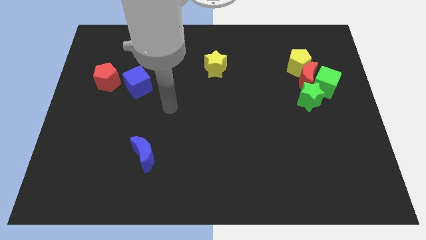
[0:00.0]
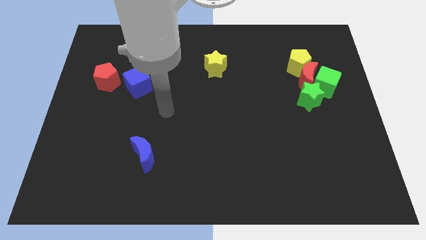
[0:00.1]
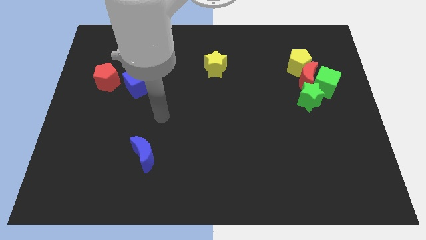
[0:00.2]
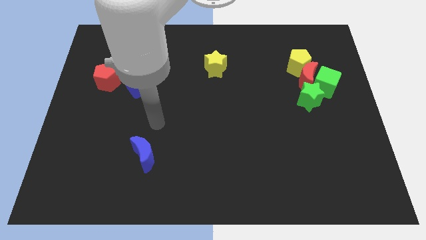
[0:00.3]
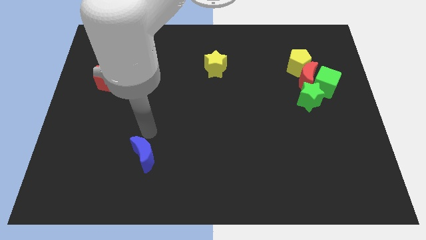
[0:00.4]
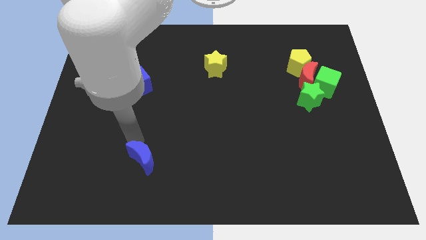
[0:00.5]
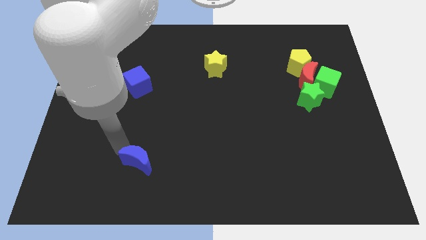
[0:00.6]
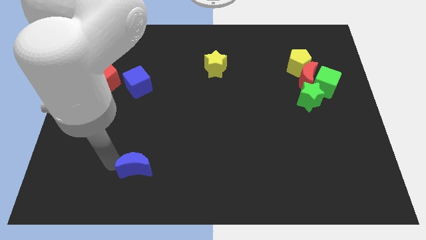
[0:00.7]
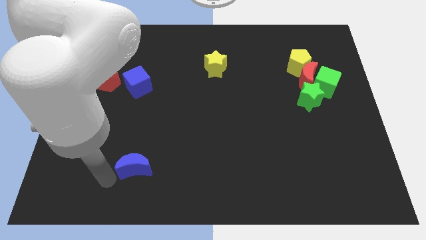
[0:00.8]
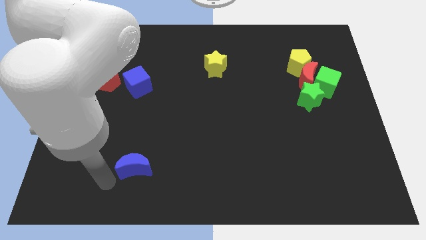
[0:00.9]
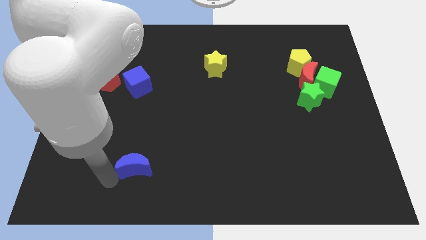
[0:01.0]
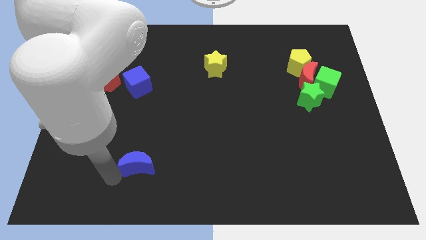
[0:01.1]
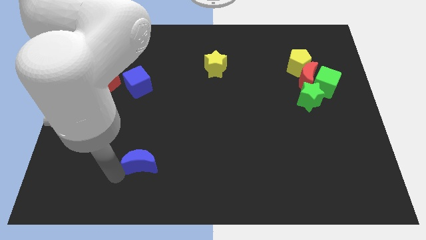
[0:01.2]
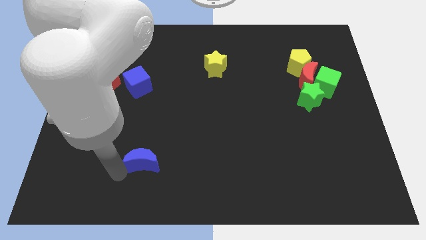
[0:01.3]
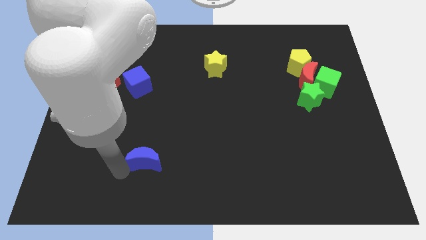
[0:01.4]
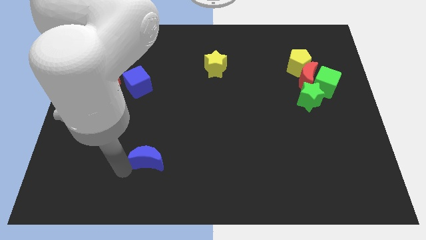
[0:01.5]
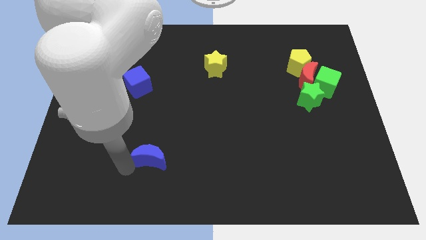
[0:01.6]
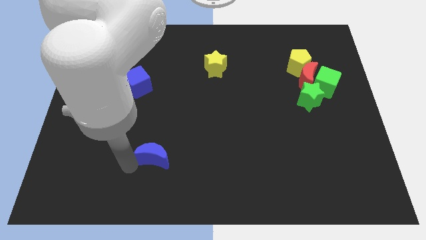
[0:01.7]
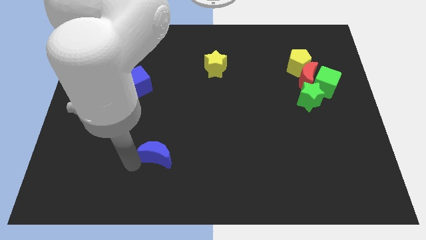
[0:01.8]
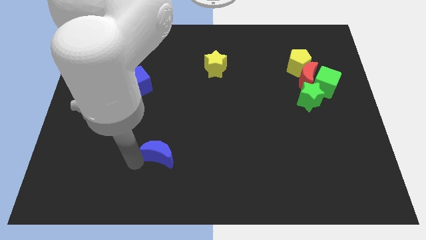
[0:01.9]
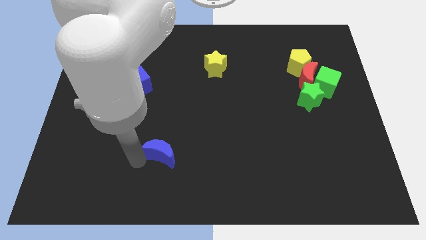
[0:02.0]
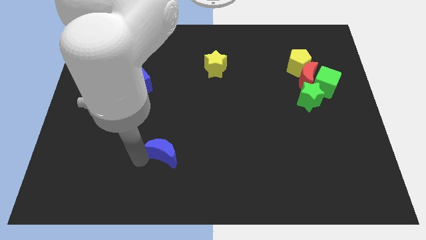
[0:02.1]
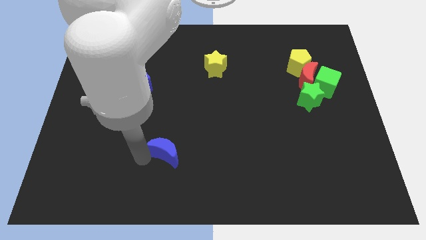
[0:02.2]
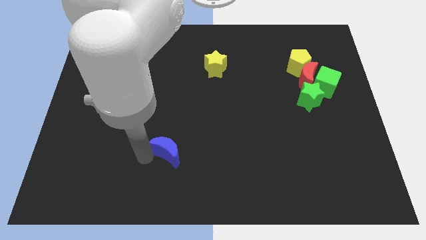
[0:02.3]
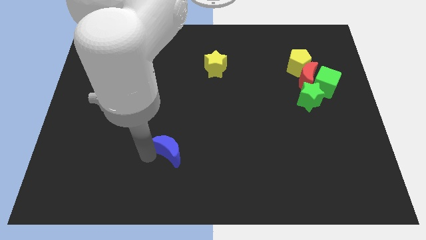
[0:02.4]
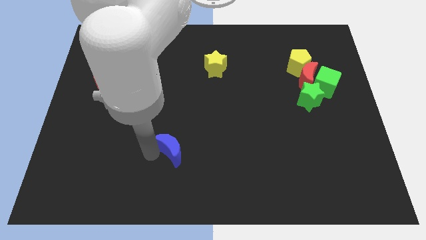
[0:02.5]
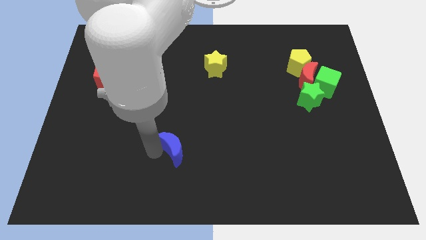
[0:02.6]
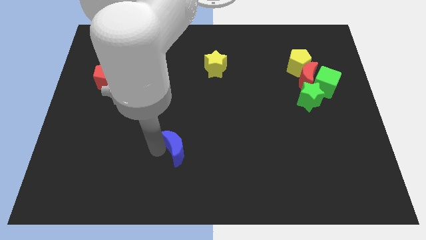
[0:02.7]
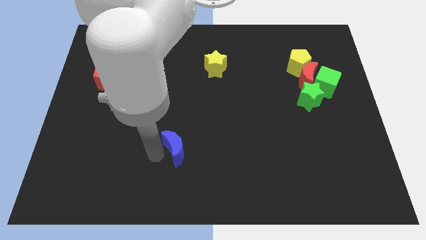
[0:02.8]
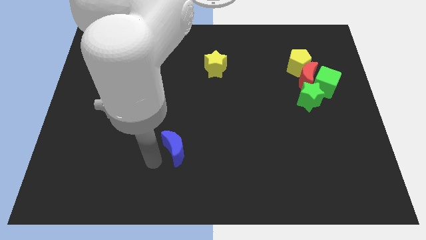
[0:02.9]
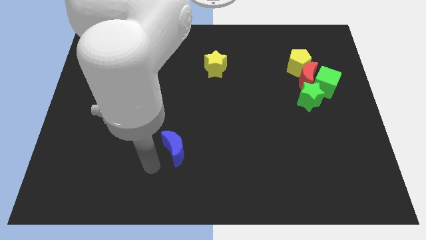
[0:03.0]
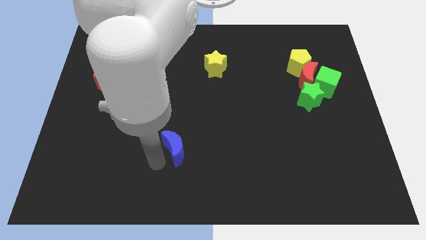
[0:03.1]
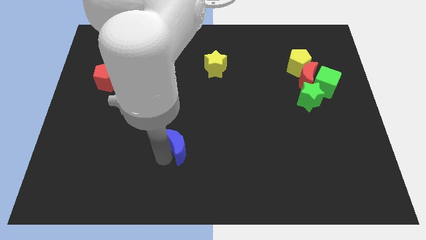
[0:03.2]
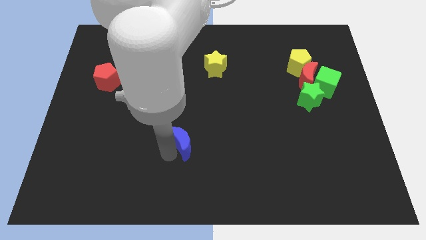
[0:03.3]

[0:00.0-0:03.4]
move the blue moon slightly up and then right

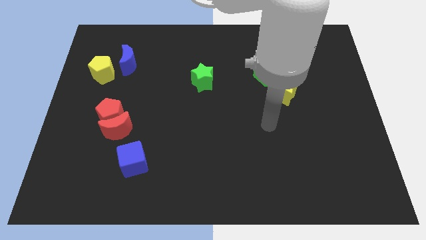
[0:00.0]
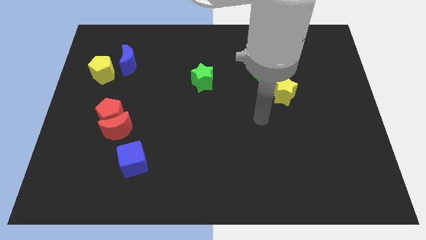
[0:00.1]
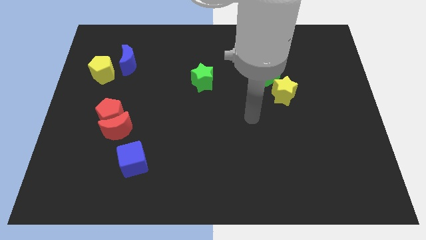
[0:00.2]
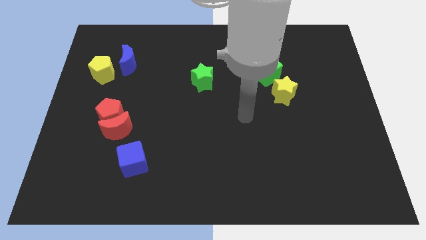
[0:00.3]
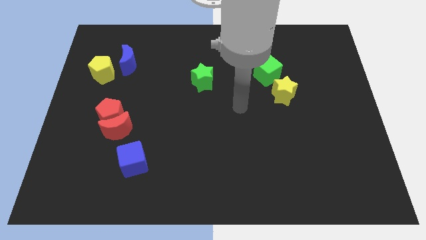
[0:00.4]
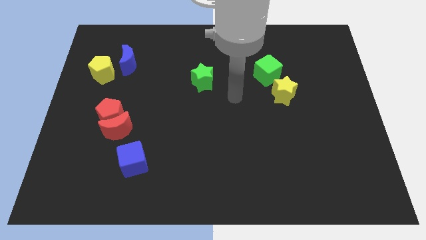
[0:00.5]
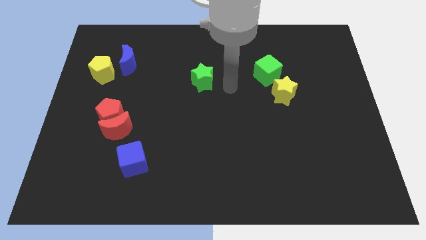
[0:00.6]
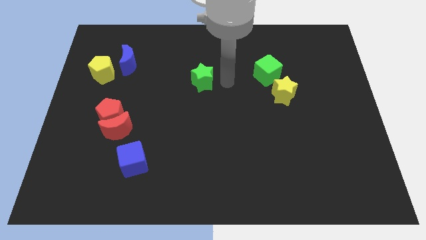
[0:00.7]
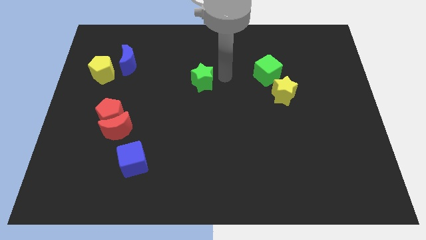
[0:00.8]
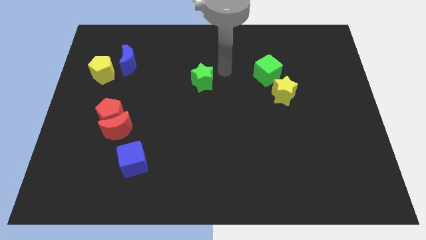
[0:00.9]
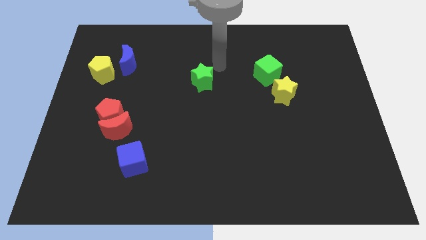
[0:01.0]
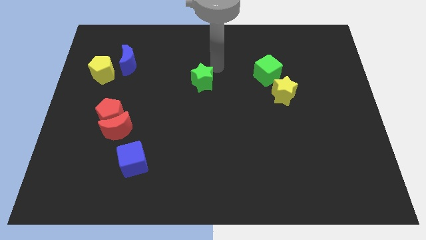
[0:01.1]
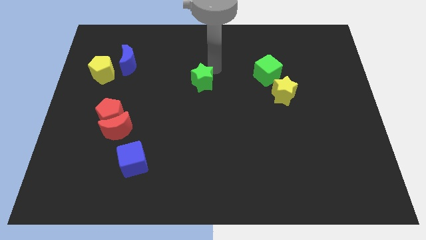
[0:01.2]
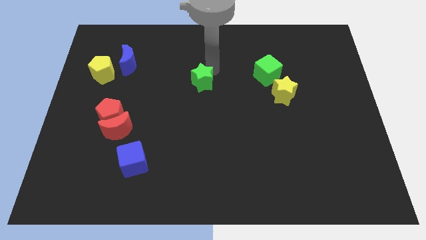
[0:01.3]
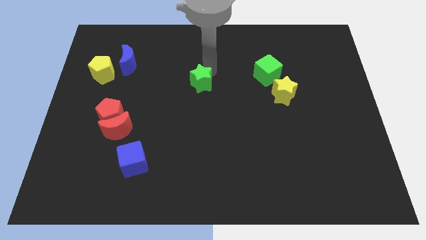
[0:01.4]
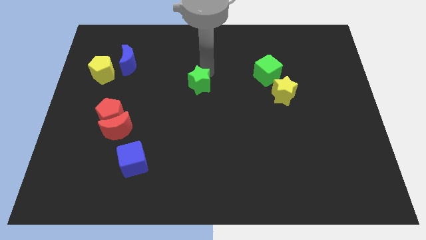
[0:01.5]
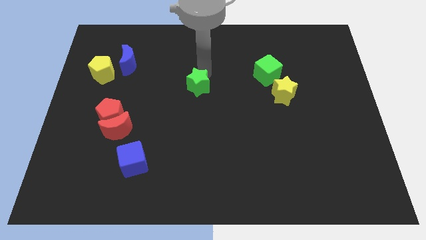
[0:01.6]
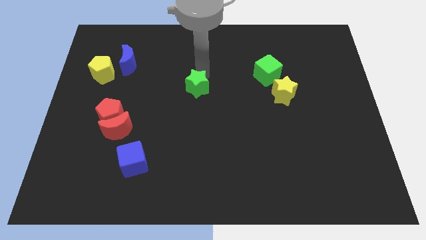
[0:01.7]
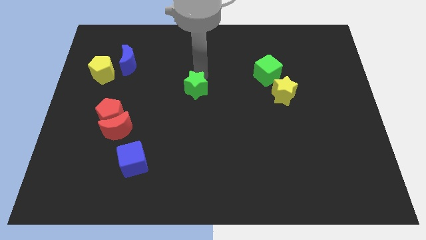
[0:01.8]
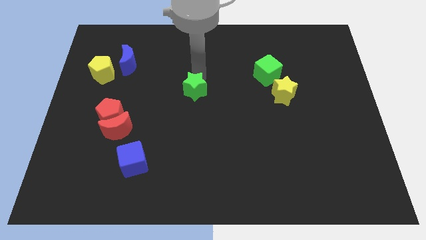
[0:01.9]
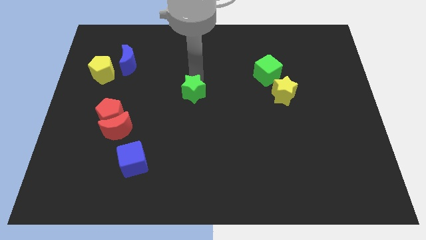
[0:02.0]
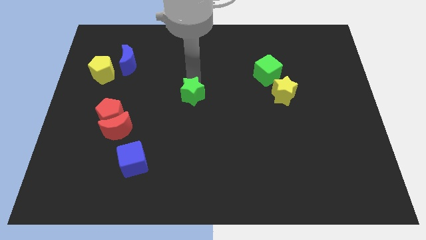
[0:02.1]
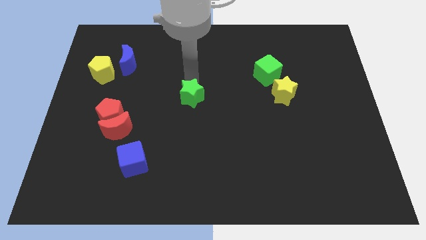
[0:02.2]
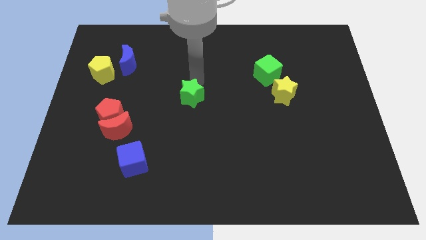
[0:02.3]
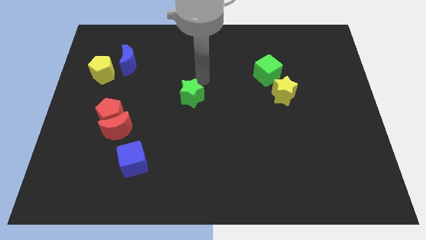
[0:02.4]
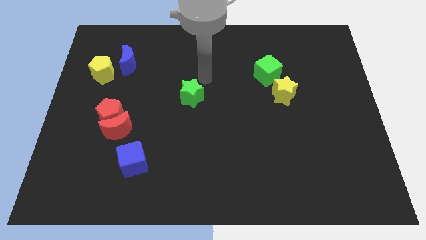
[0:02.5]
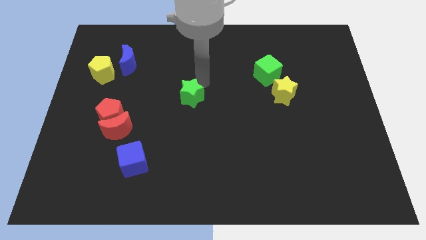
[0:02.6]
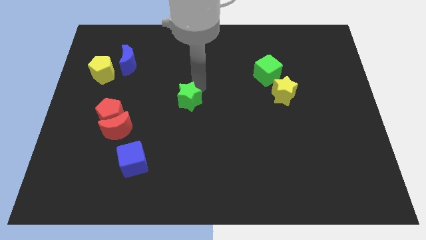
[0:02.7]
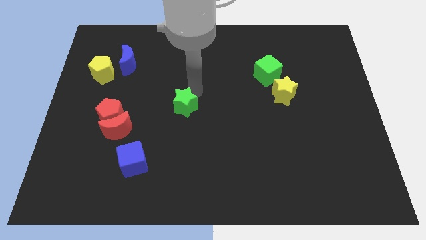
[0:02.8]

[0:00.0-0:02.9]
push the green star down and to the left a little bit

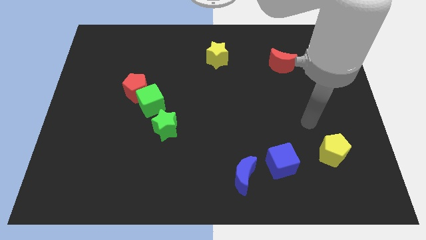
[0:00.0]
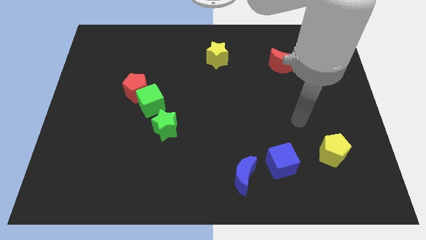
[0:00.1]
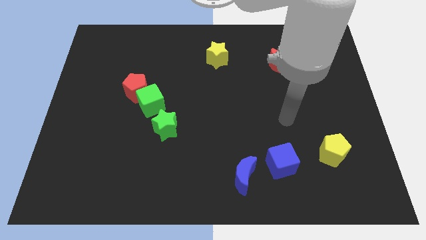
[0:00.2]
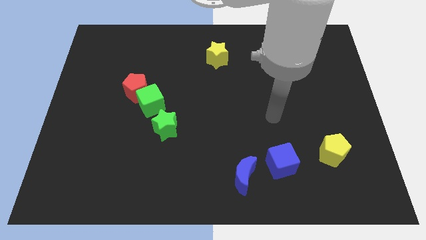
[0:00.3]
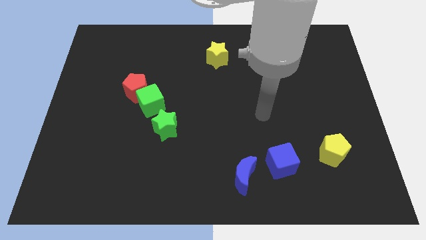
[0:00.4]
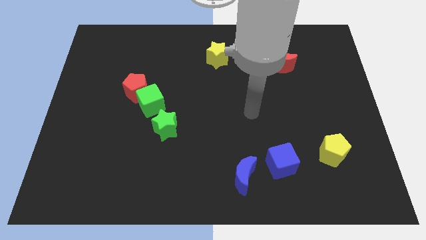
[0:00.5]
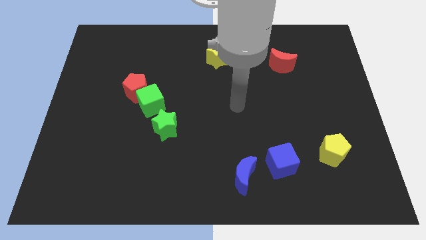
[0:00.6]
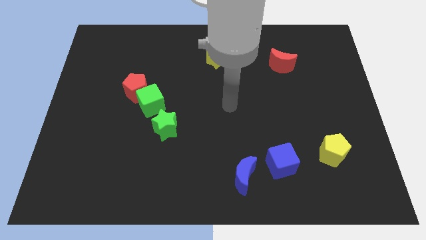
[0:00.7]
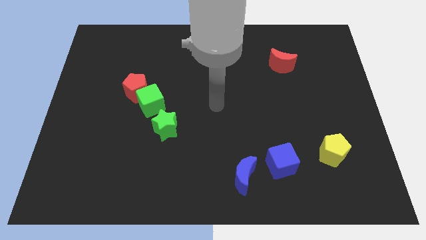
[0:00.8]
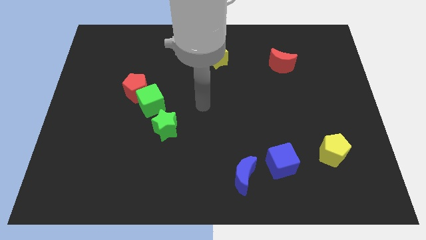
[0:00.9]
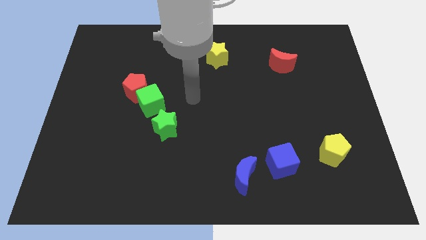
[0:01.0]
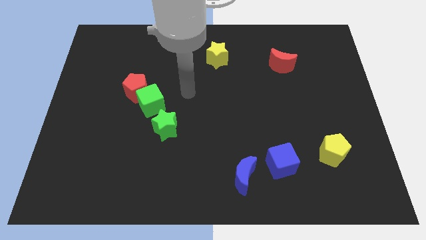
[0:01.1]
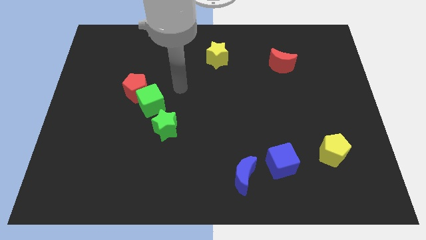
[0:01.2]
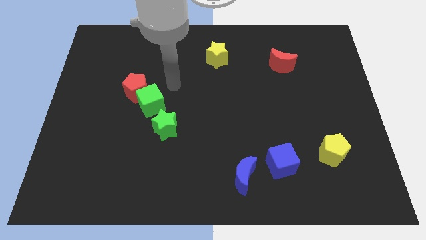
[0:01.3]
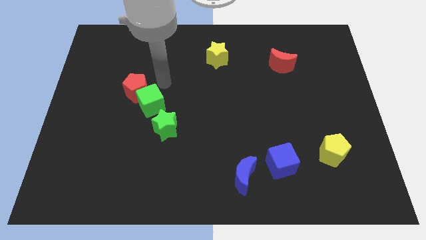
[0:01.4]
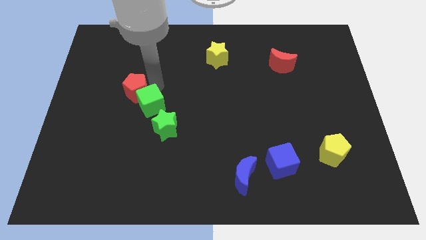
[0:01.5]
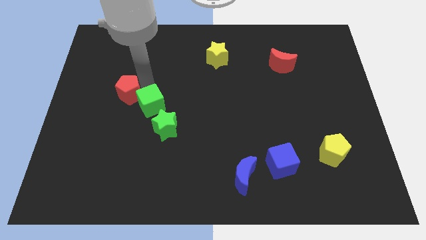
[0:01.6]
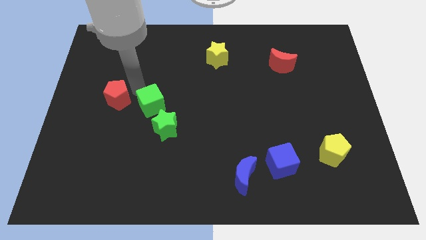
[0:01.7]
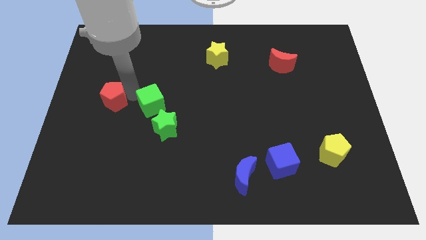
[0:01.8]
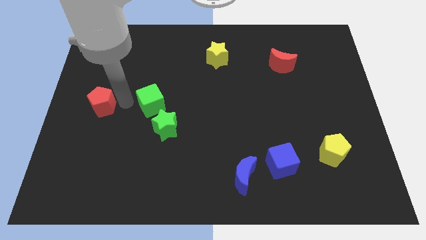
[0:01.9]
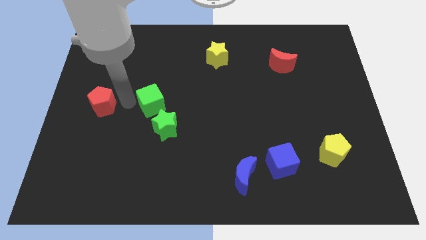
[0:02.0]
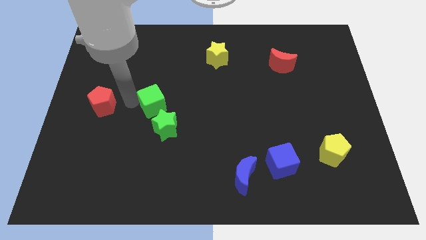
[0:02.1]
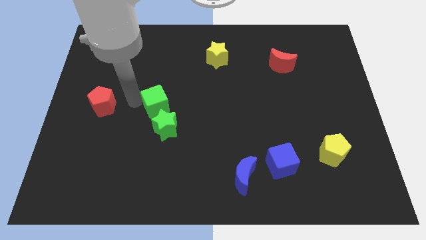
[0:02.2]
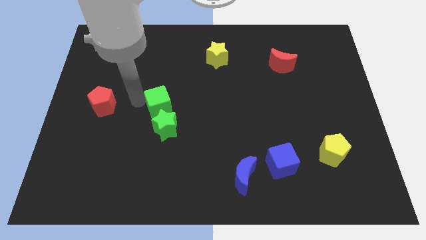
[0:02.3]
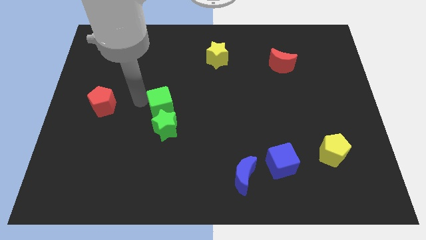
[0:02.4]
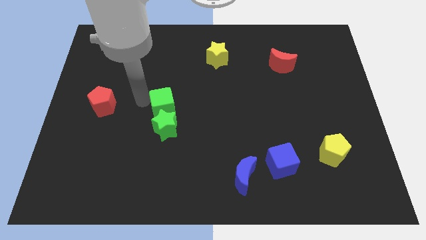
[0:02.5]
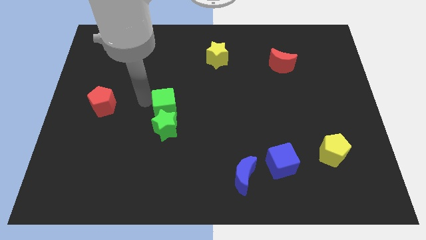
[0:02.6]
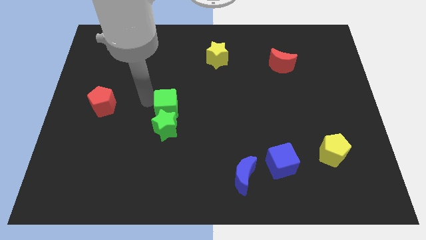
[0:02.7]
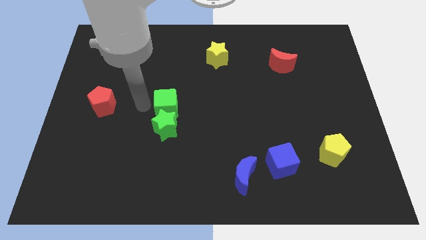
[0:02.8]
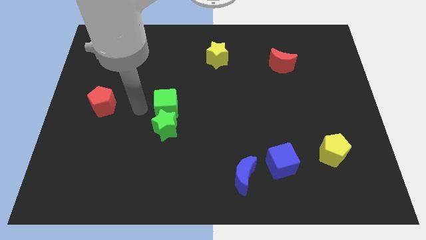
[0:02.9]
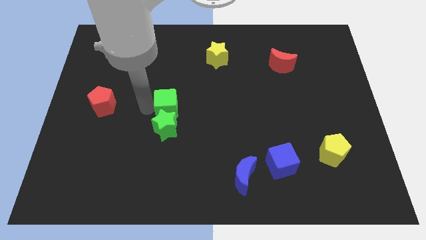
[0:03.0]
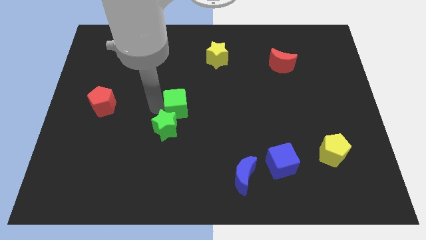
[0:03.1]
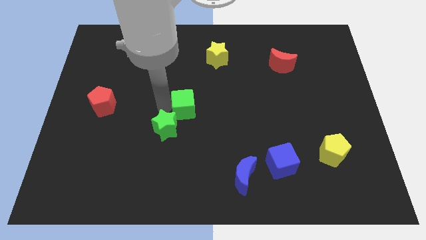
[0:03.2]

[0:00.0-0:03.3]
slightly push the green cube to the right
